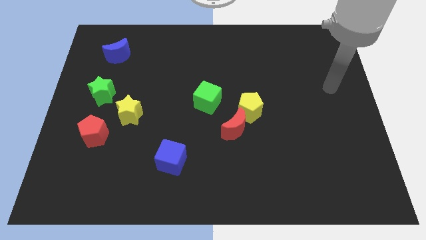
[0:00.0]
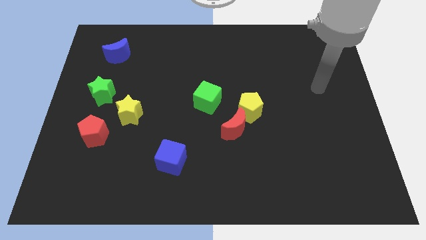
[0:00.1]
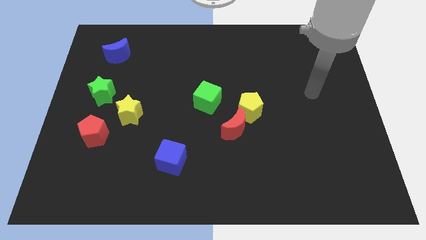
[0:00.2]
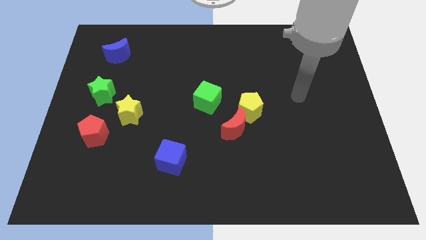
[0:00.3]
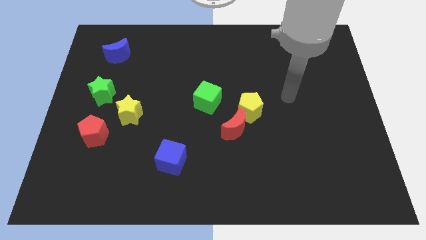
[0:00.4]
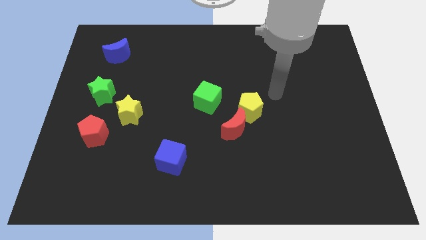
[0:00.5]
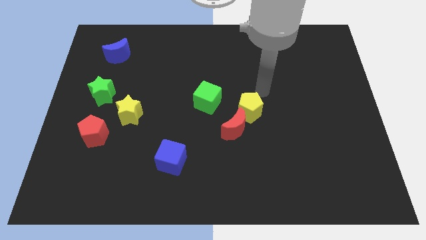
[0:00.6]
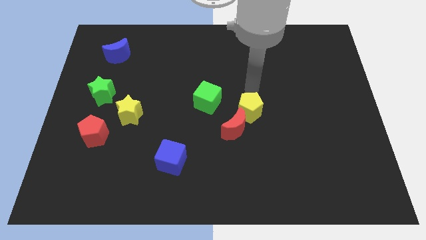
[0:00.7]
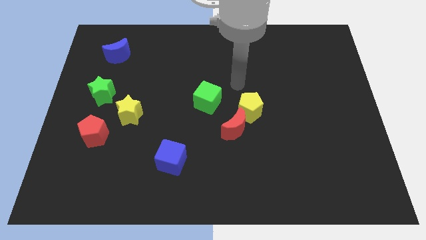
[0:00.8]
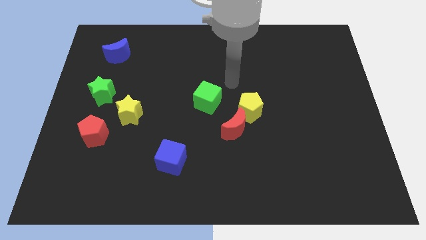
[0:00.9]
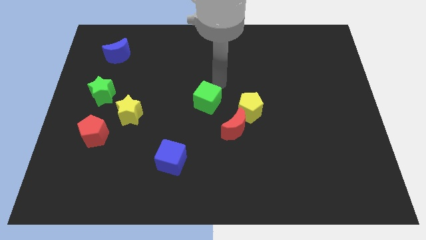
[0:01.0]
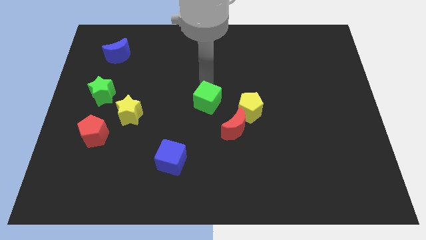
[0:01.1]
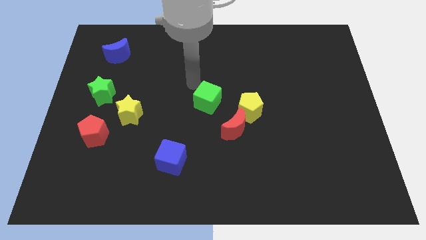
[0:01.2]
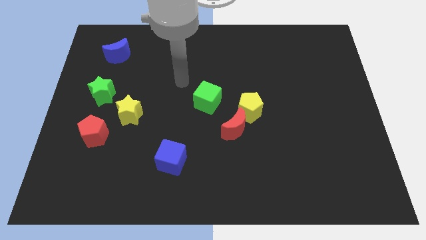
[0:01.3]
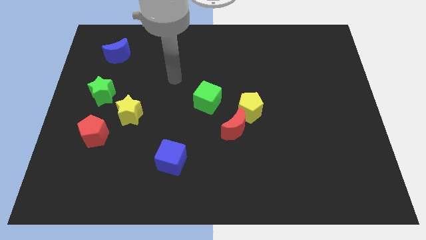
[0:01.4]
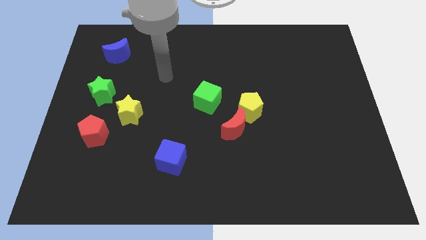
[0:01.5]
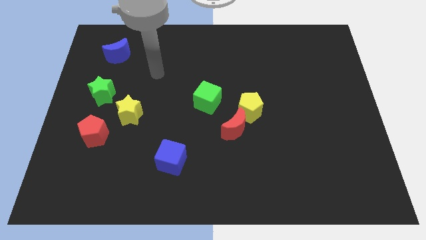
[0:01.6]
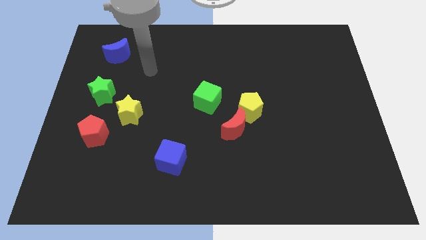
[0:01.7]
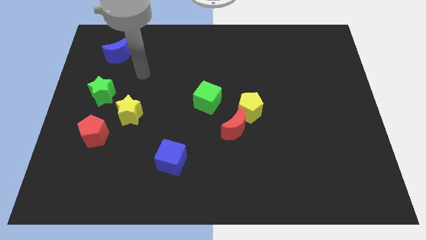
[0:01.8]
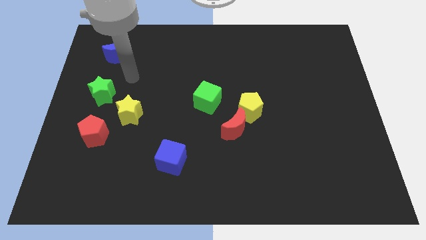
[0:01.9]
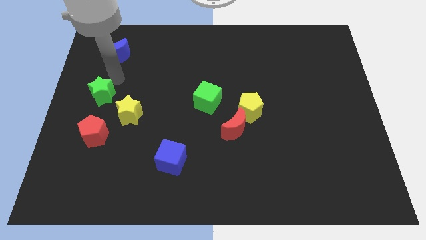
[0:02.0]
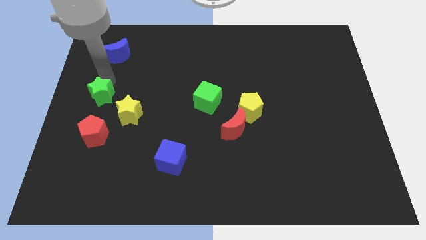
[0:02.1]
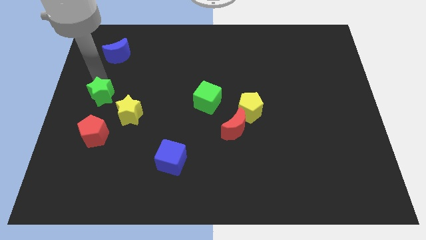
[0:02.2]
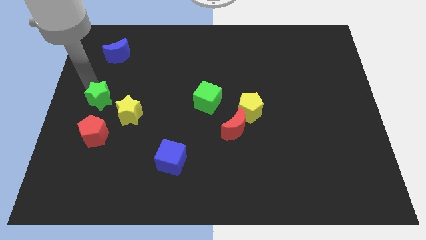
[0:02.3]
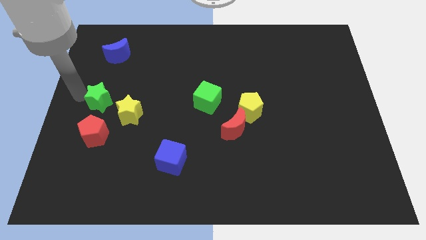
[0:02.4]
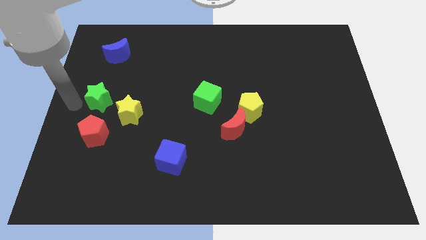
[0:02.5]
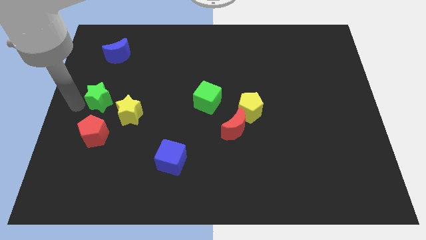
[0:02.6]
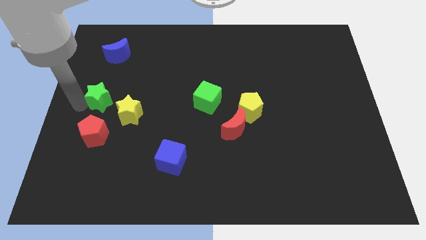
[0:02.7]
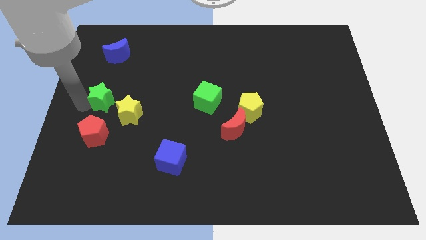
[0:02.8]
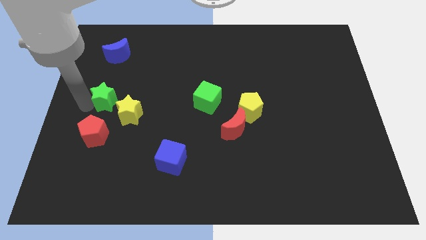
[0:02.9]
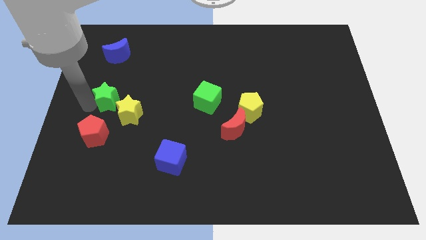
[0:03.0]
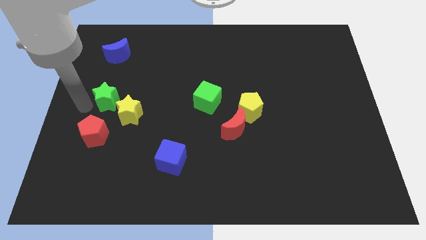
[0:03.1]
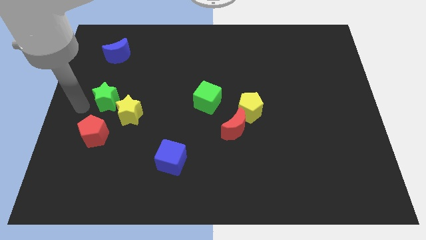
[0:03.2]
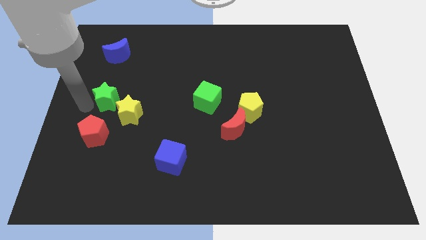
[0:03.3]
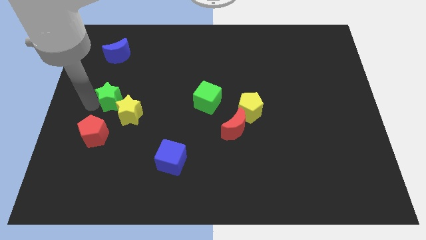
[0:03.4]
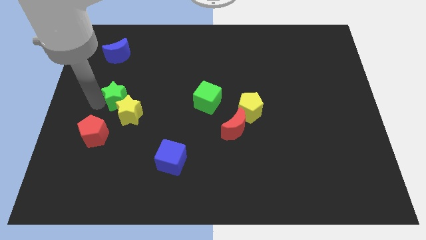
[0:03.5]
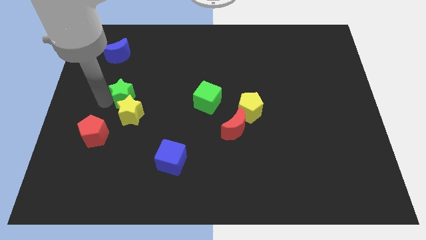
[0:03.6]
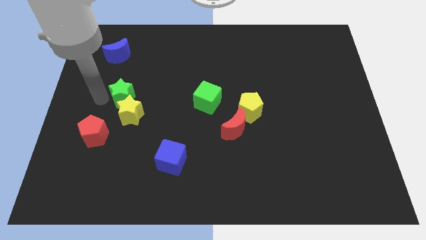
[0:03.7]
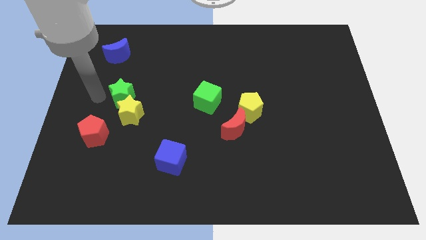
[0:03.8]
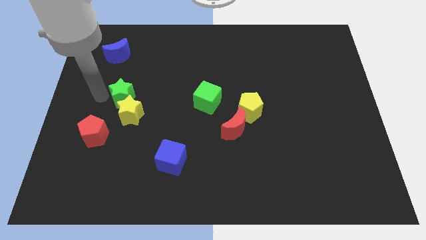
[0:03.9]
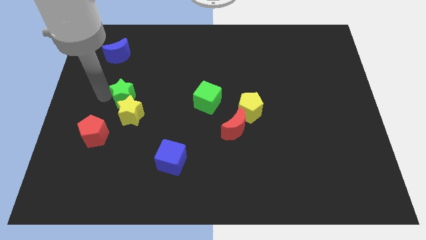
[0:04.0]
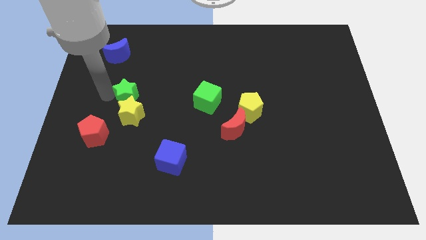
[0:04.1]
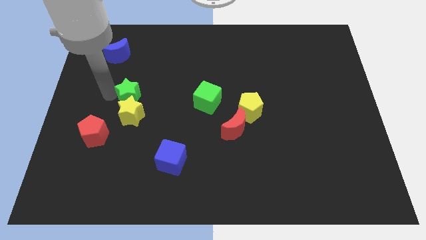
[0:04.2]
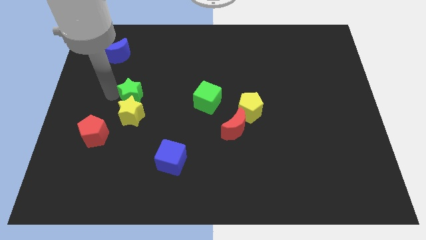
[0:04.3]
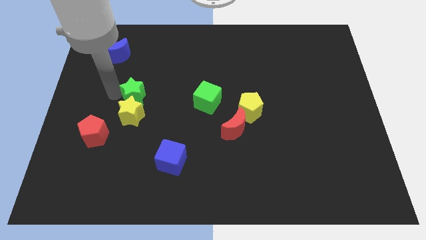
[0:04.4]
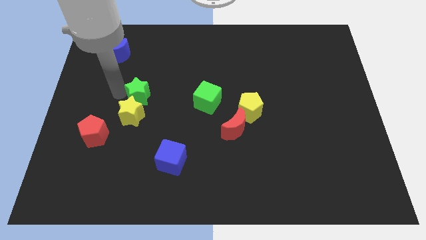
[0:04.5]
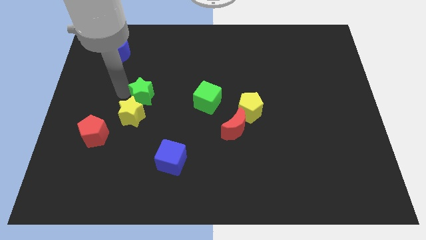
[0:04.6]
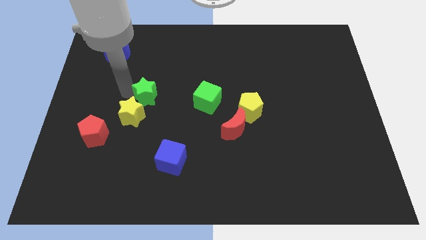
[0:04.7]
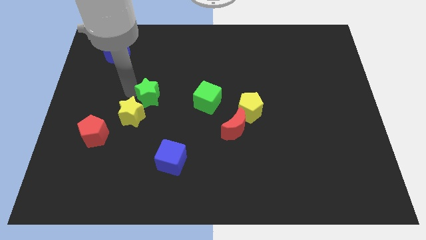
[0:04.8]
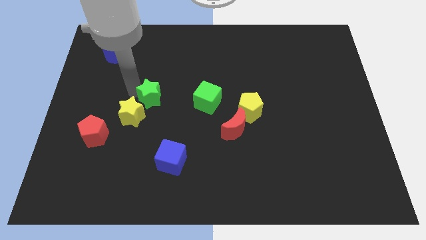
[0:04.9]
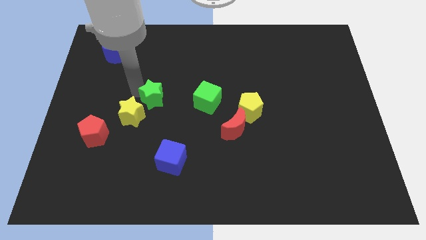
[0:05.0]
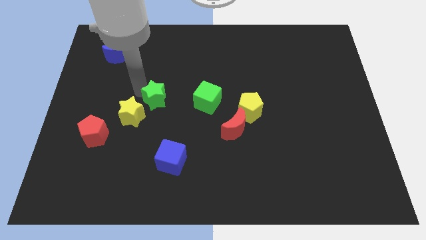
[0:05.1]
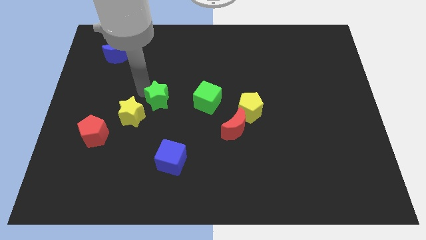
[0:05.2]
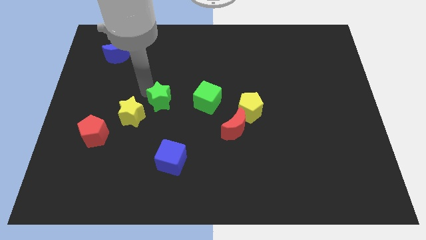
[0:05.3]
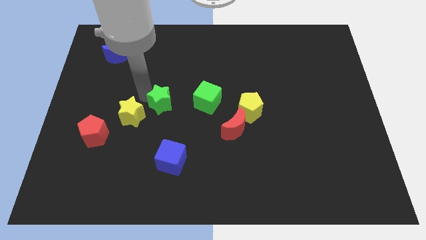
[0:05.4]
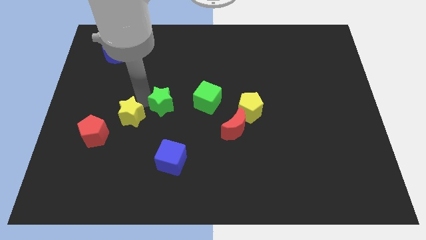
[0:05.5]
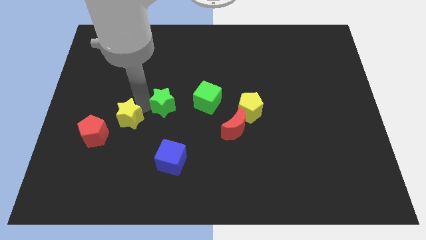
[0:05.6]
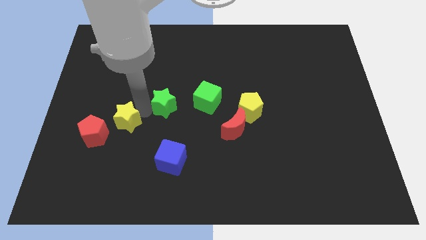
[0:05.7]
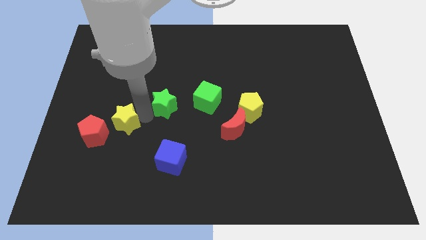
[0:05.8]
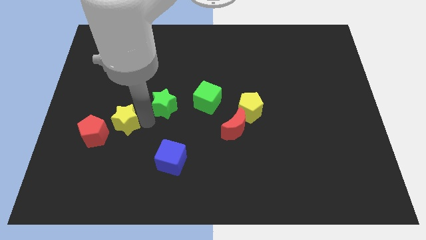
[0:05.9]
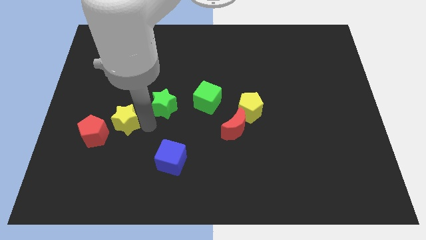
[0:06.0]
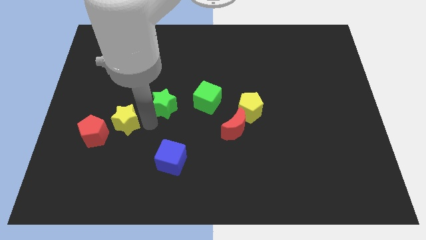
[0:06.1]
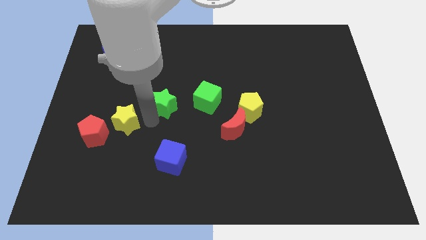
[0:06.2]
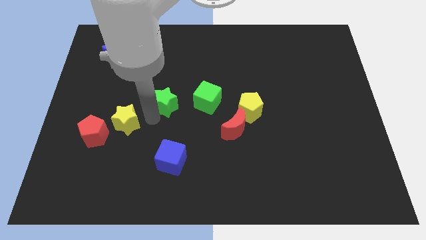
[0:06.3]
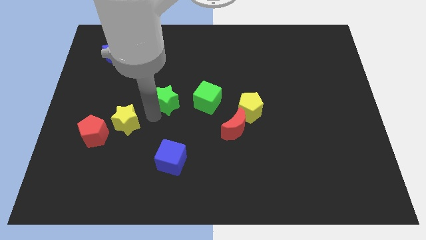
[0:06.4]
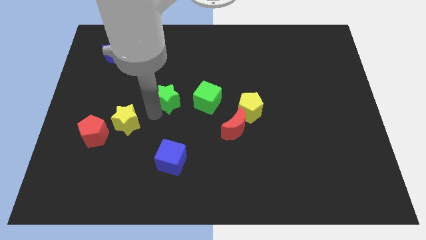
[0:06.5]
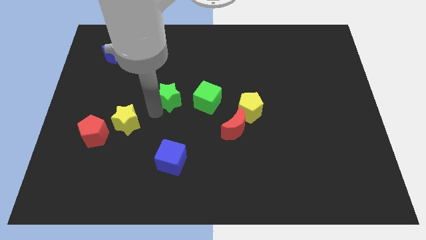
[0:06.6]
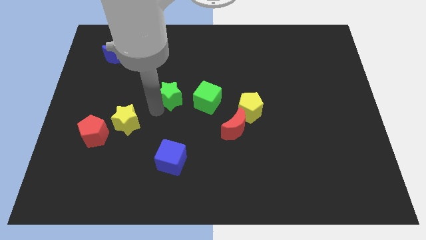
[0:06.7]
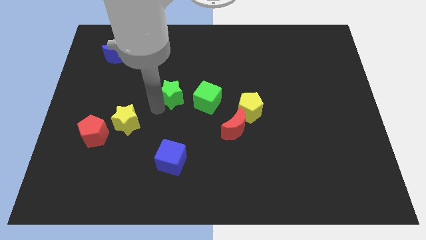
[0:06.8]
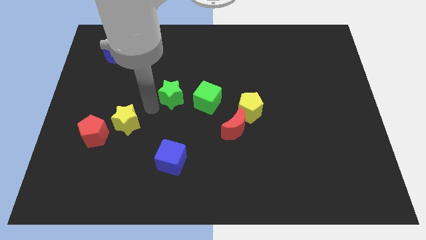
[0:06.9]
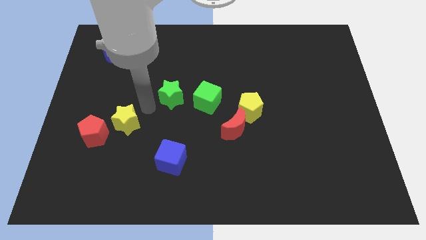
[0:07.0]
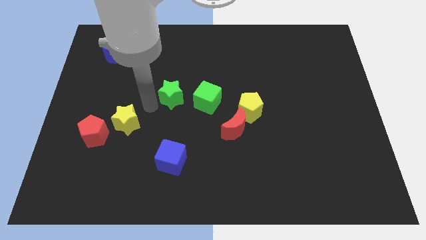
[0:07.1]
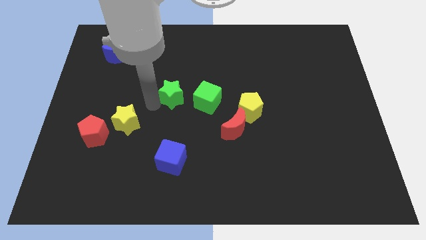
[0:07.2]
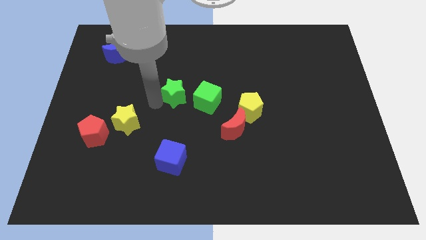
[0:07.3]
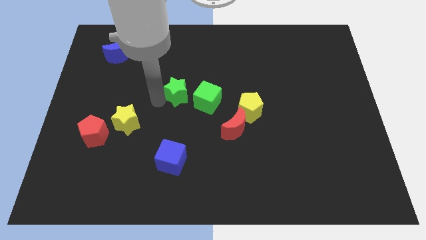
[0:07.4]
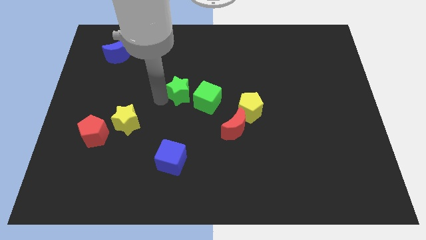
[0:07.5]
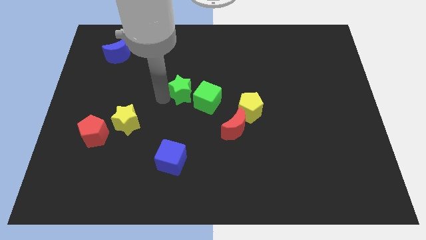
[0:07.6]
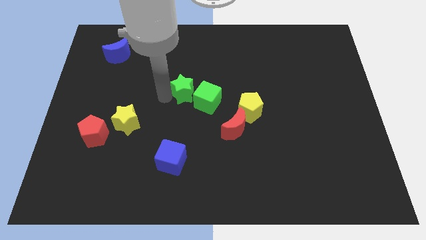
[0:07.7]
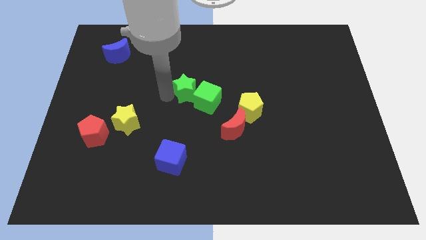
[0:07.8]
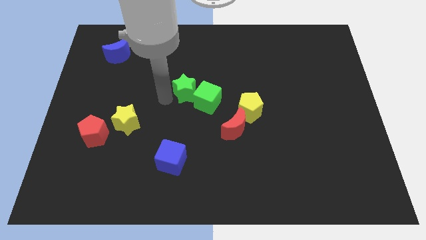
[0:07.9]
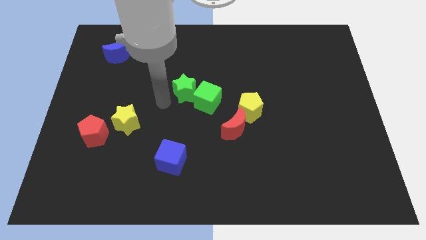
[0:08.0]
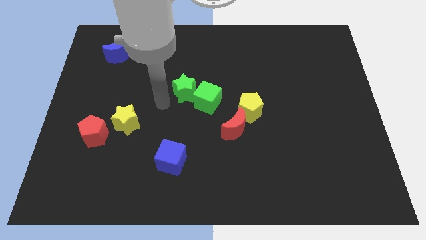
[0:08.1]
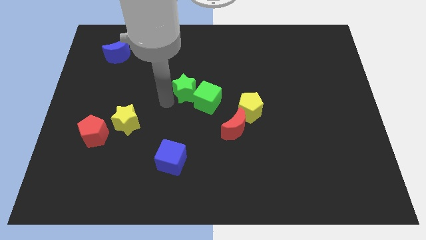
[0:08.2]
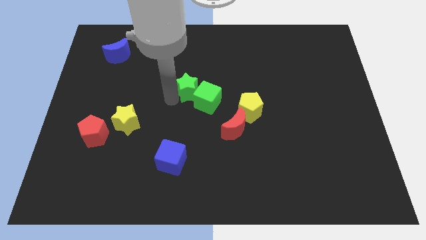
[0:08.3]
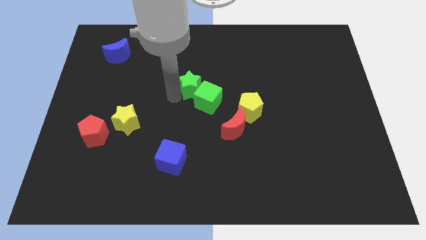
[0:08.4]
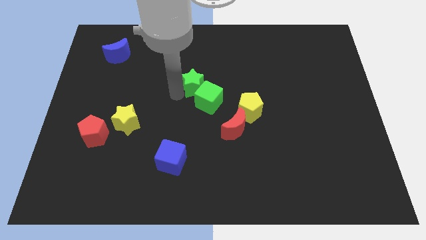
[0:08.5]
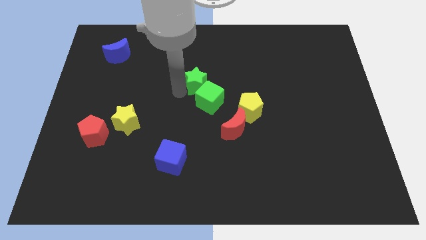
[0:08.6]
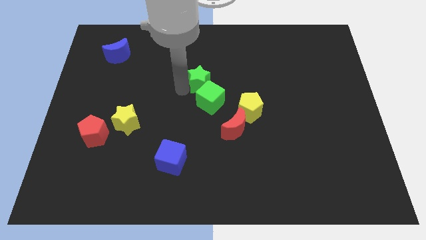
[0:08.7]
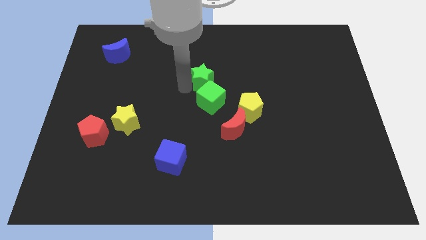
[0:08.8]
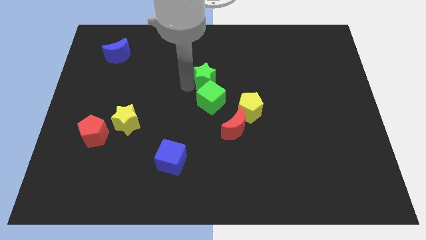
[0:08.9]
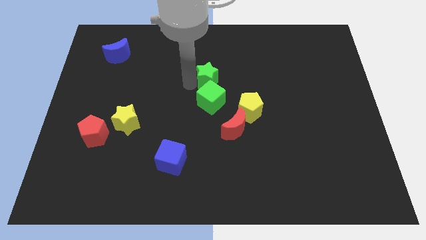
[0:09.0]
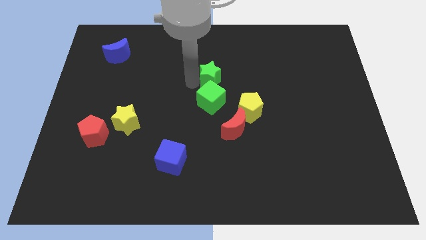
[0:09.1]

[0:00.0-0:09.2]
slide the green star to the top right of the green cube
